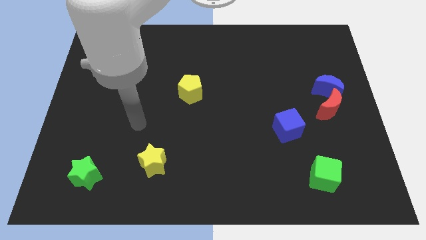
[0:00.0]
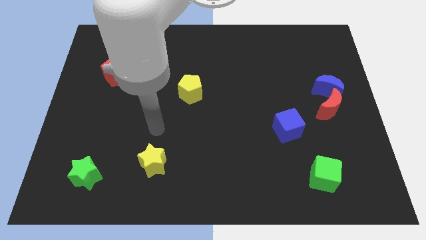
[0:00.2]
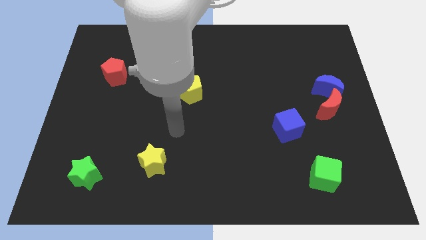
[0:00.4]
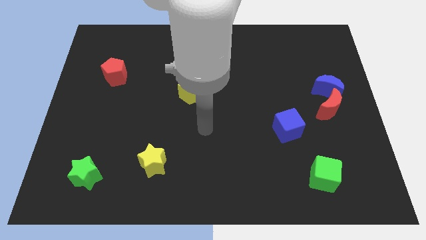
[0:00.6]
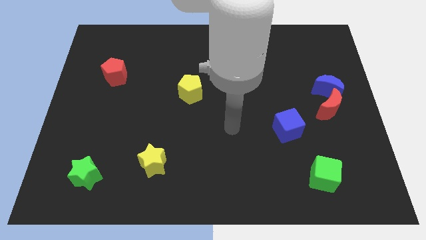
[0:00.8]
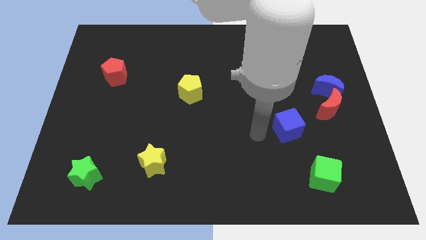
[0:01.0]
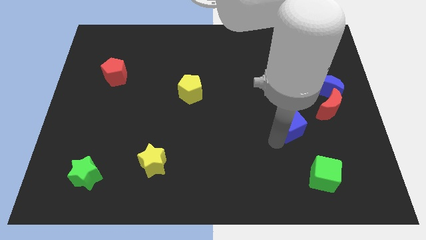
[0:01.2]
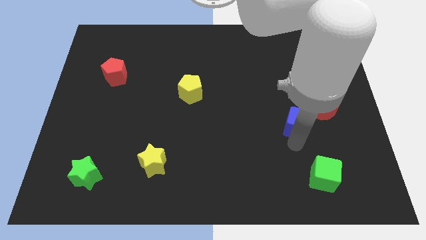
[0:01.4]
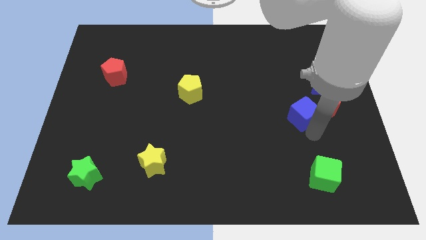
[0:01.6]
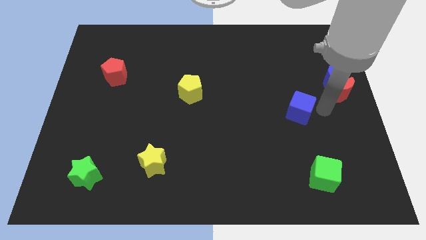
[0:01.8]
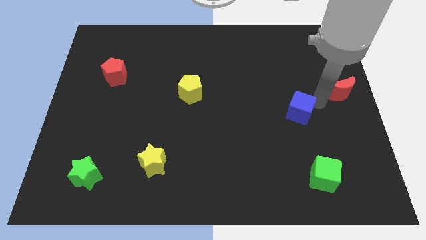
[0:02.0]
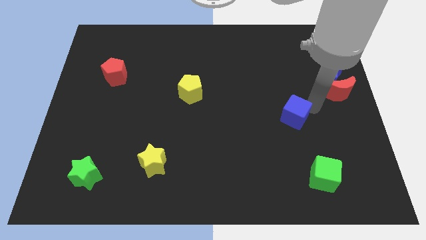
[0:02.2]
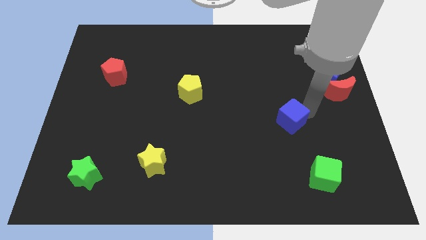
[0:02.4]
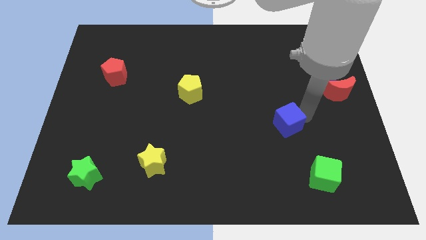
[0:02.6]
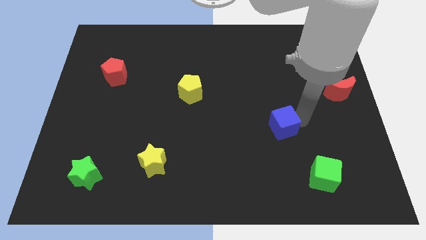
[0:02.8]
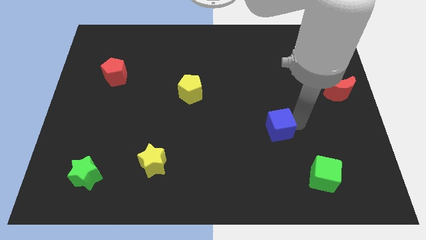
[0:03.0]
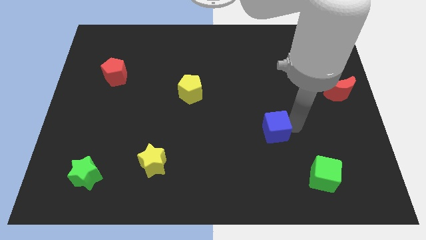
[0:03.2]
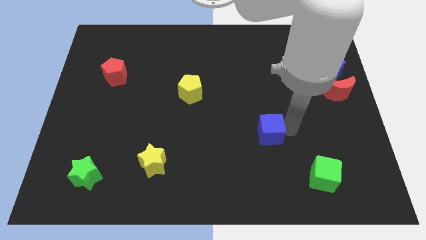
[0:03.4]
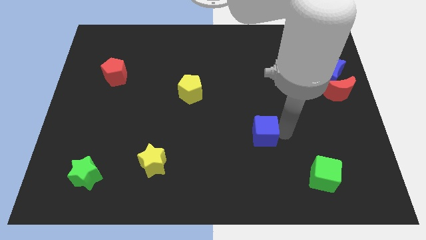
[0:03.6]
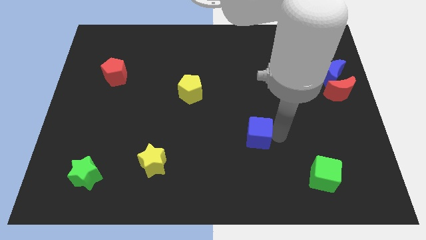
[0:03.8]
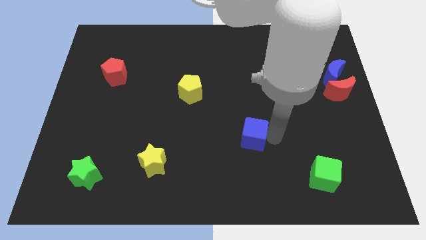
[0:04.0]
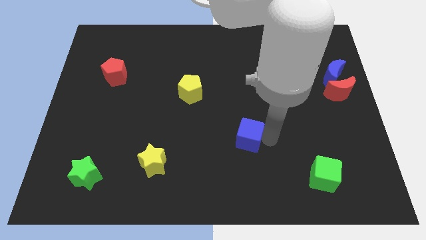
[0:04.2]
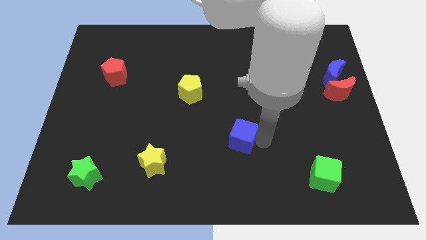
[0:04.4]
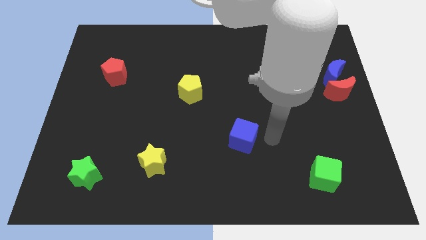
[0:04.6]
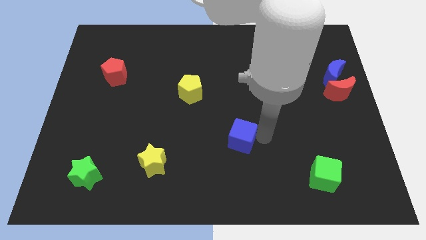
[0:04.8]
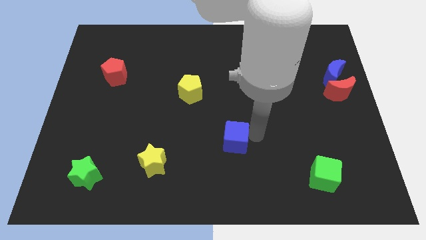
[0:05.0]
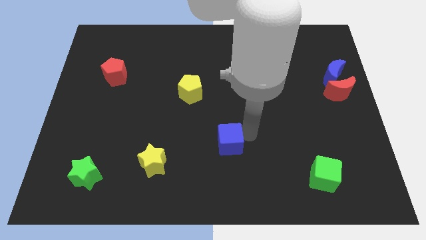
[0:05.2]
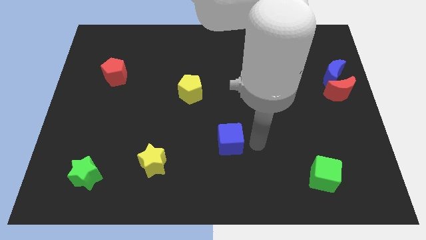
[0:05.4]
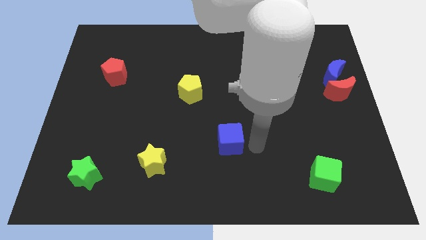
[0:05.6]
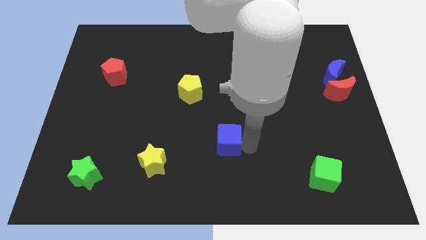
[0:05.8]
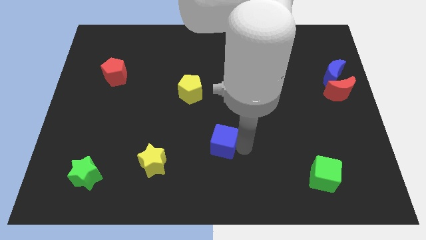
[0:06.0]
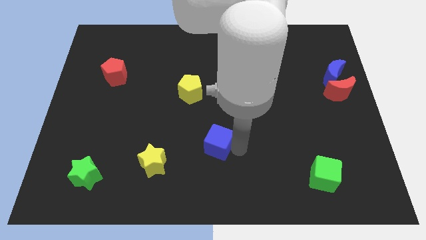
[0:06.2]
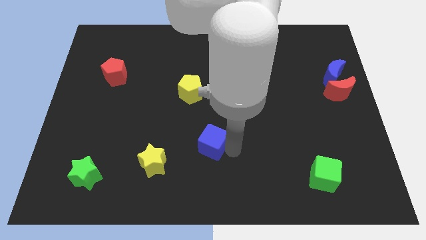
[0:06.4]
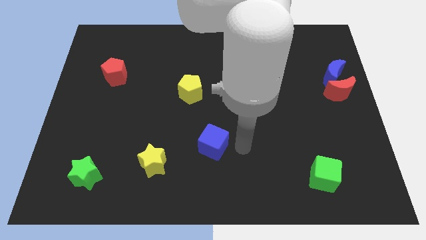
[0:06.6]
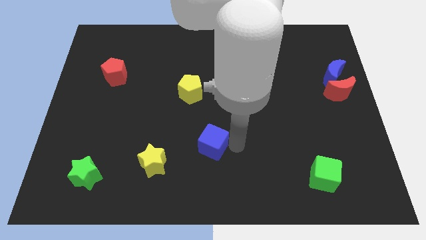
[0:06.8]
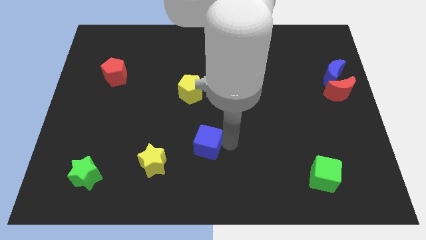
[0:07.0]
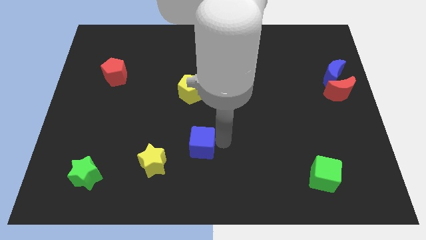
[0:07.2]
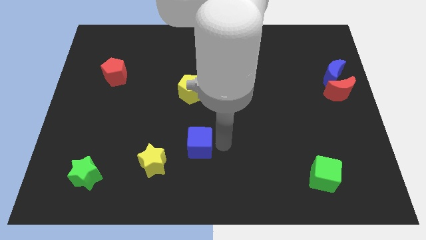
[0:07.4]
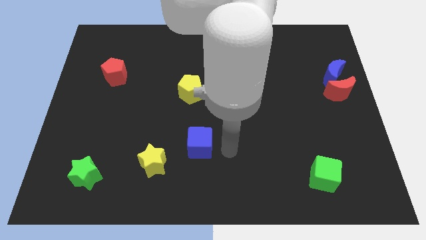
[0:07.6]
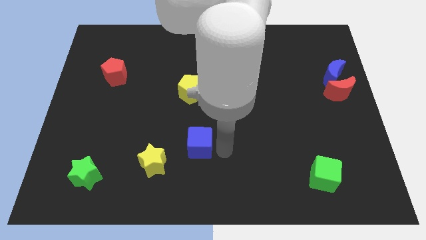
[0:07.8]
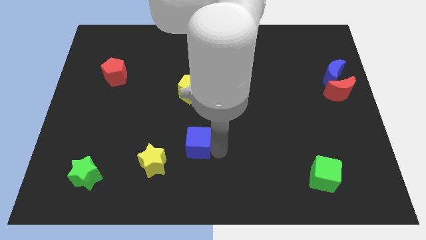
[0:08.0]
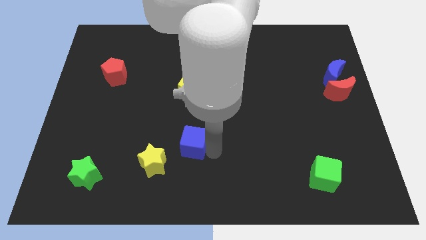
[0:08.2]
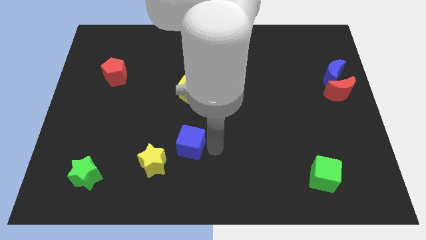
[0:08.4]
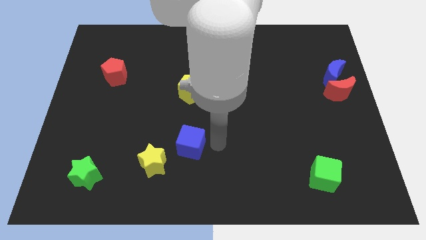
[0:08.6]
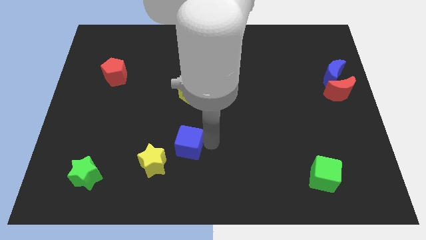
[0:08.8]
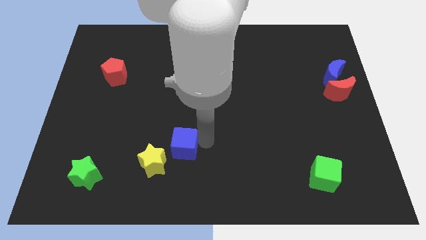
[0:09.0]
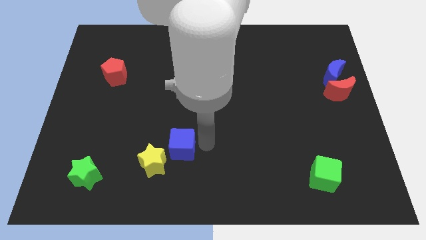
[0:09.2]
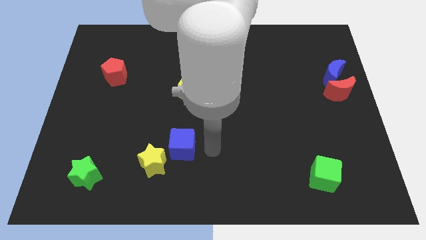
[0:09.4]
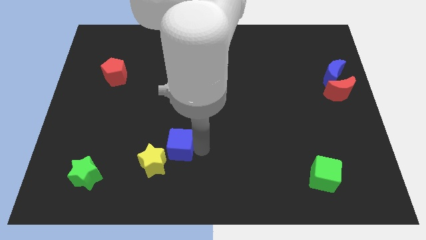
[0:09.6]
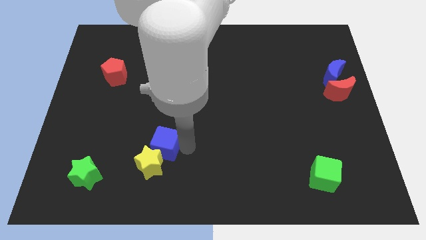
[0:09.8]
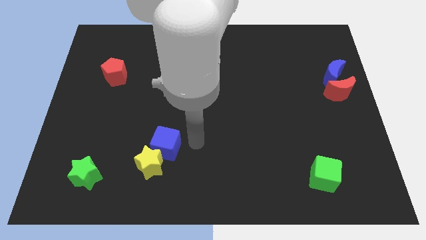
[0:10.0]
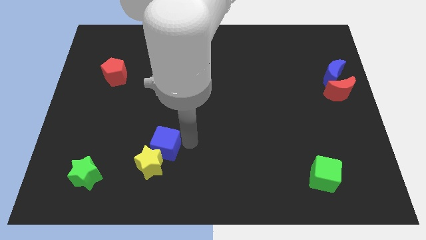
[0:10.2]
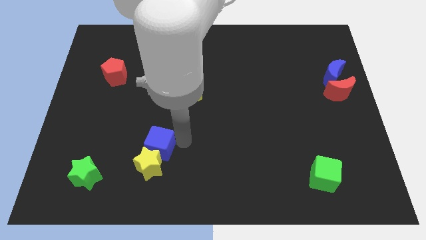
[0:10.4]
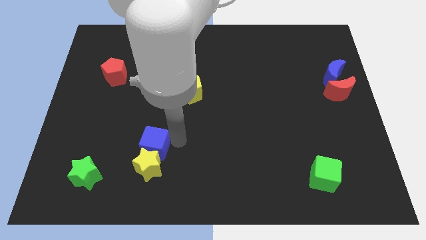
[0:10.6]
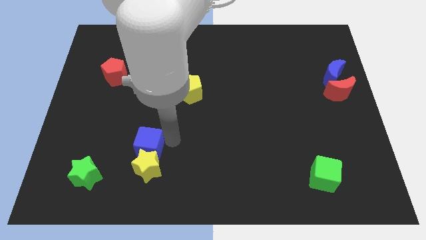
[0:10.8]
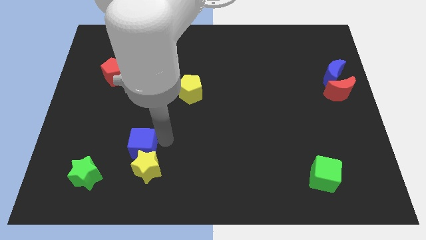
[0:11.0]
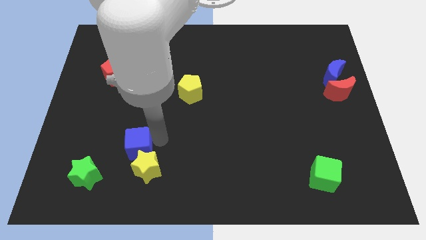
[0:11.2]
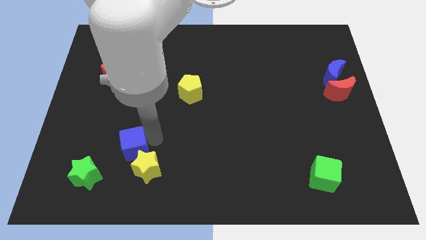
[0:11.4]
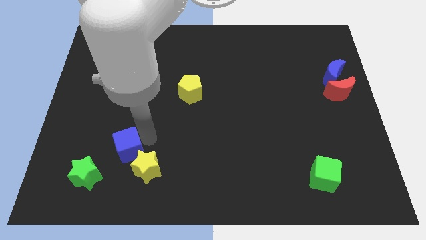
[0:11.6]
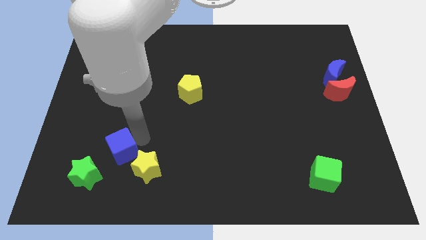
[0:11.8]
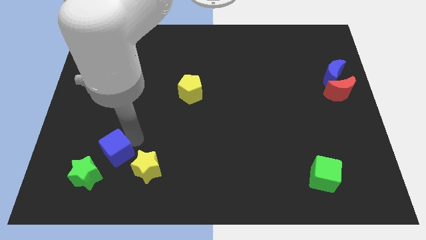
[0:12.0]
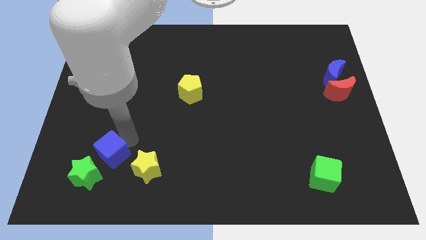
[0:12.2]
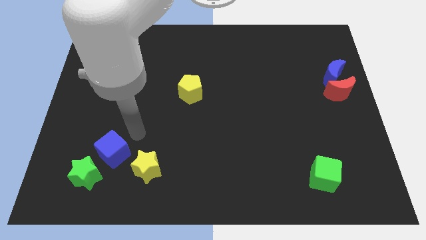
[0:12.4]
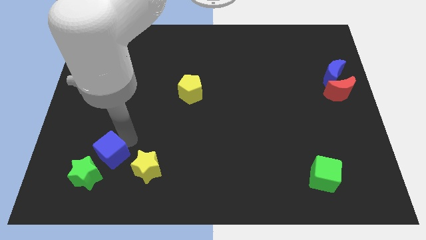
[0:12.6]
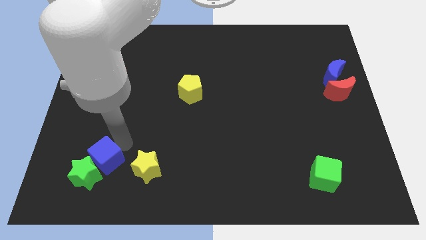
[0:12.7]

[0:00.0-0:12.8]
slide the blue cube close to the green star

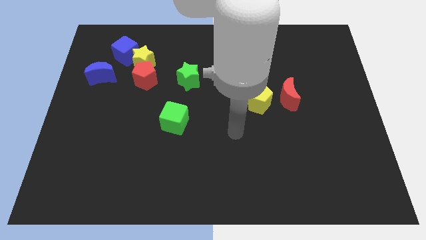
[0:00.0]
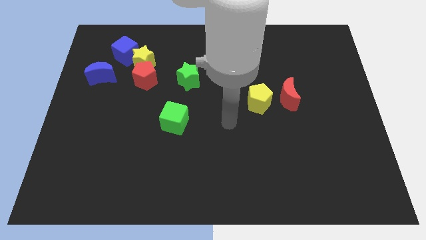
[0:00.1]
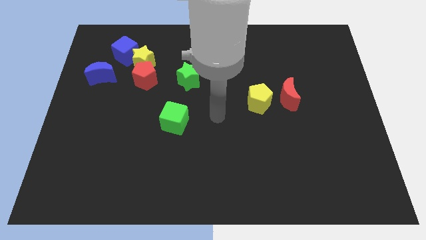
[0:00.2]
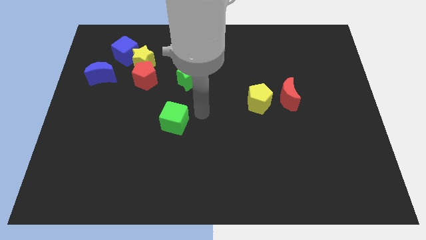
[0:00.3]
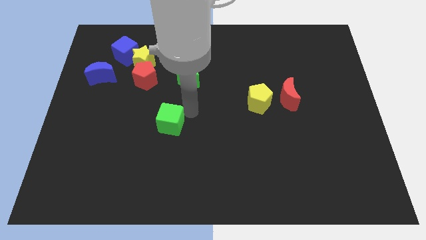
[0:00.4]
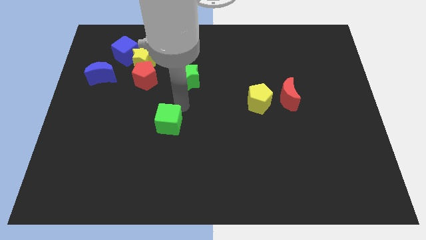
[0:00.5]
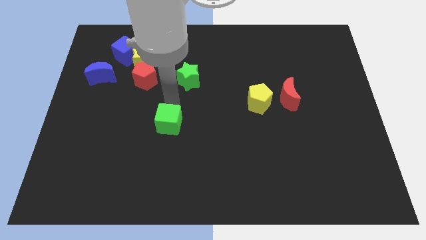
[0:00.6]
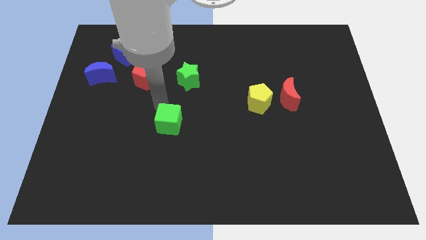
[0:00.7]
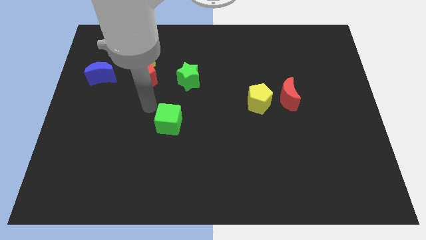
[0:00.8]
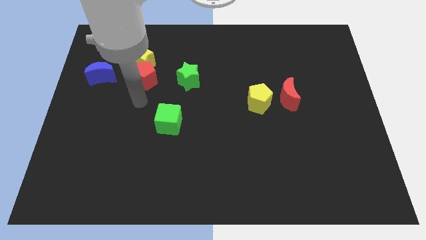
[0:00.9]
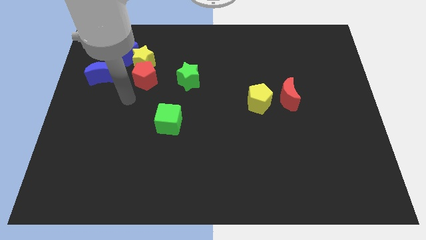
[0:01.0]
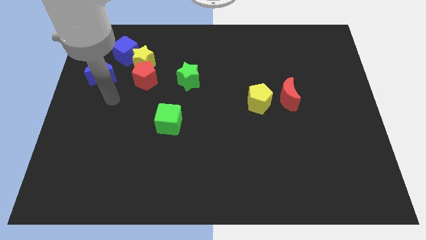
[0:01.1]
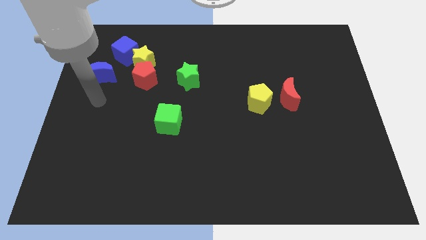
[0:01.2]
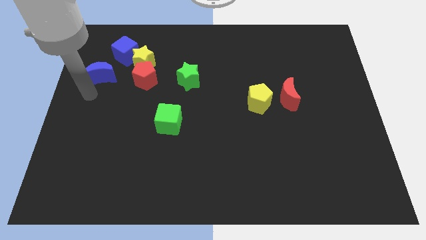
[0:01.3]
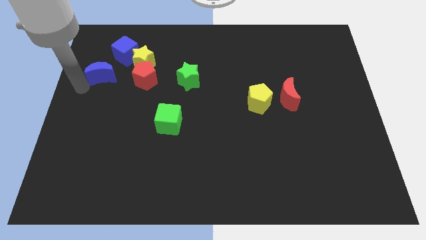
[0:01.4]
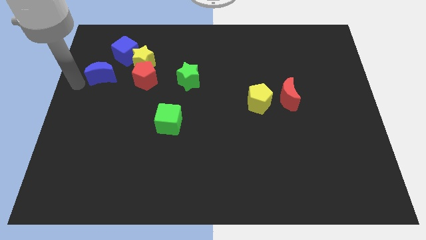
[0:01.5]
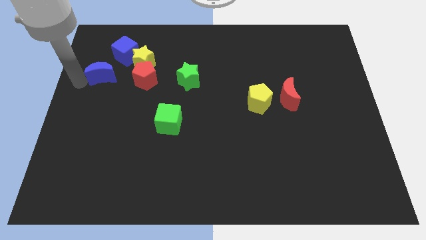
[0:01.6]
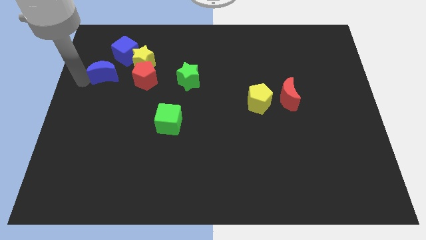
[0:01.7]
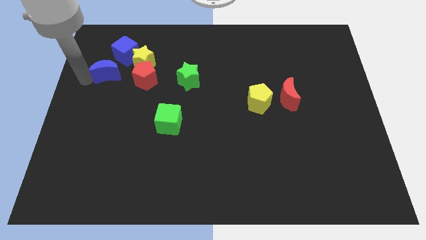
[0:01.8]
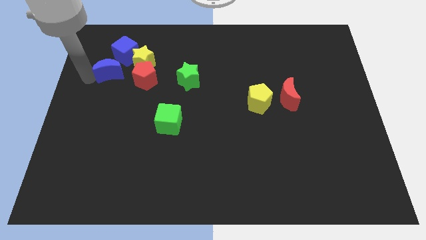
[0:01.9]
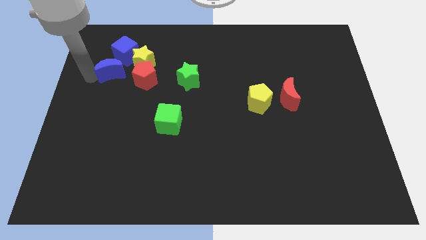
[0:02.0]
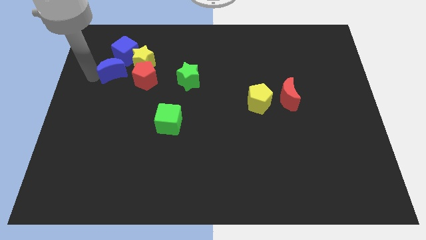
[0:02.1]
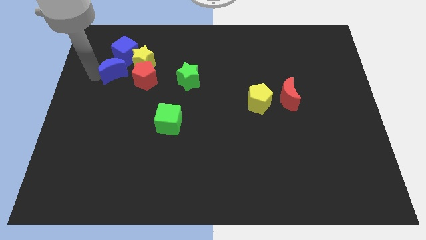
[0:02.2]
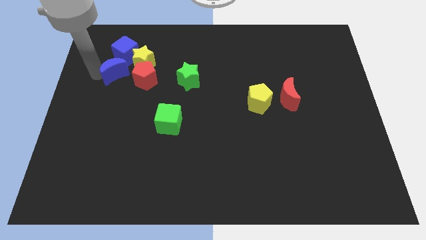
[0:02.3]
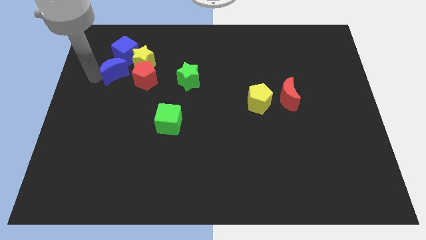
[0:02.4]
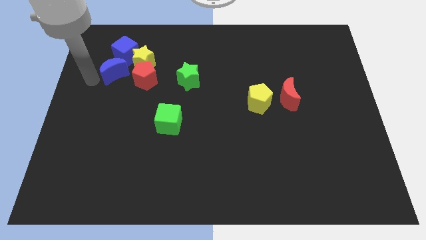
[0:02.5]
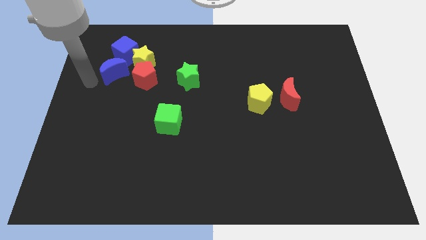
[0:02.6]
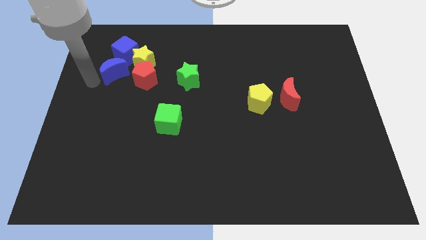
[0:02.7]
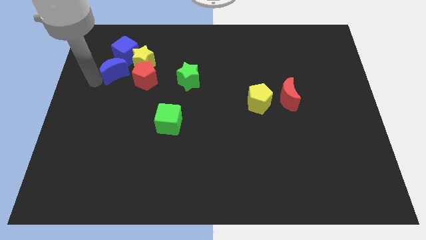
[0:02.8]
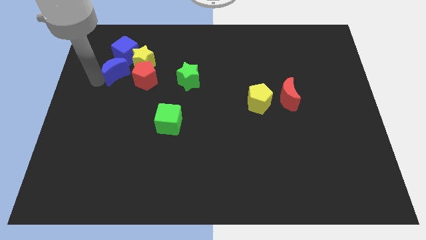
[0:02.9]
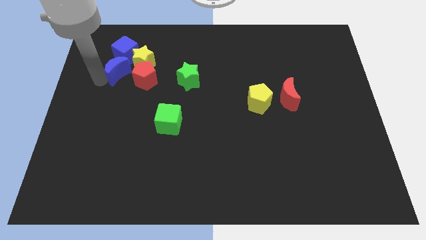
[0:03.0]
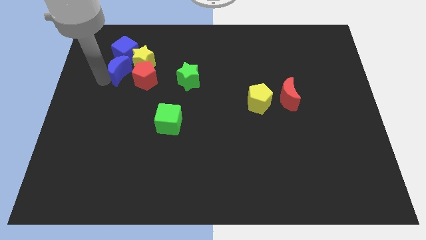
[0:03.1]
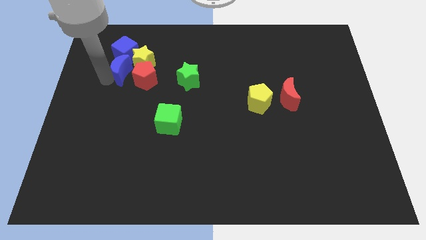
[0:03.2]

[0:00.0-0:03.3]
push the blue moon towards the yellow star
